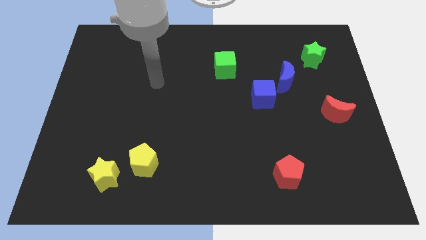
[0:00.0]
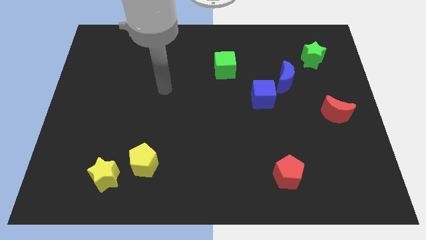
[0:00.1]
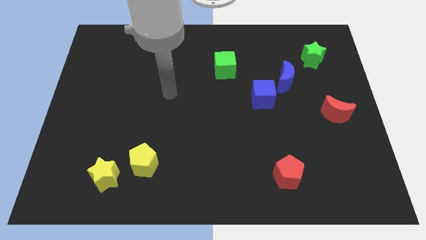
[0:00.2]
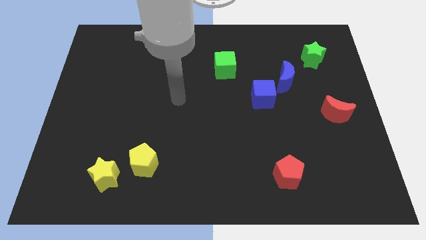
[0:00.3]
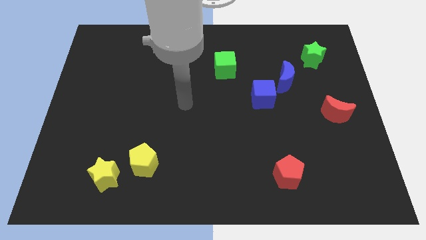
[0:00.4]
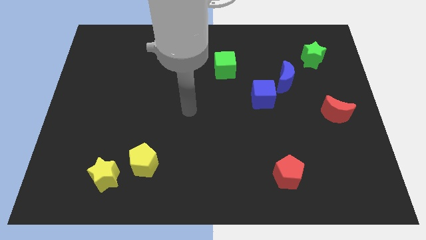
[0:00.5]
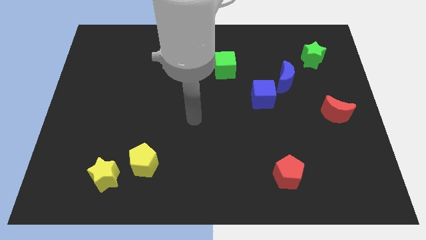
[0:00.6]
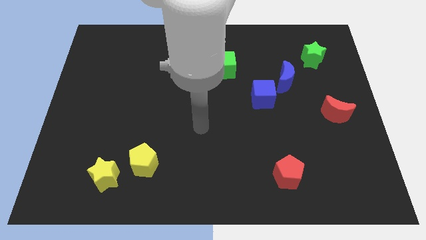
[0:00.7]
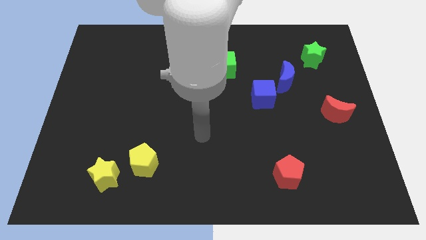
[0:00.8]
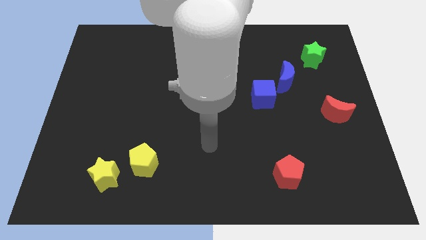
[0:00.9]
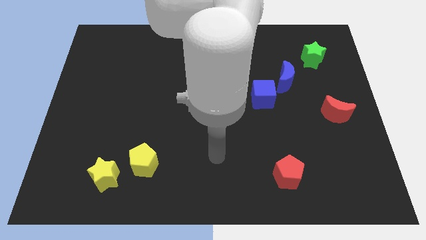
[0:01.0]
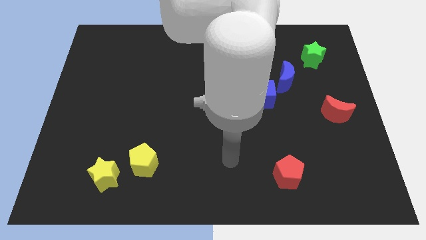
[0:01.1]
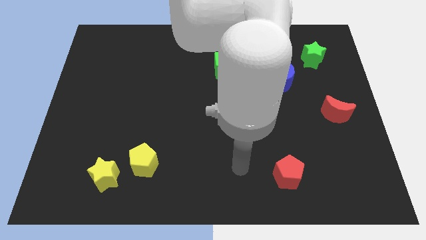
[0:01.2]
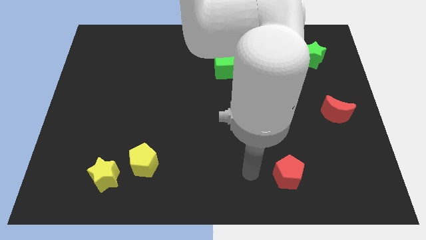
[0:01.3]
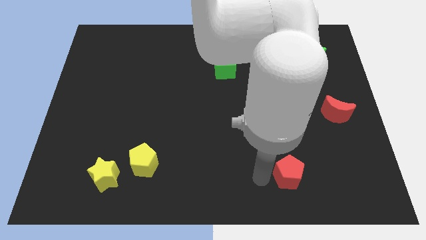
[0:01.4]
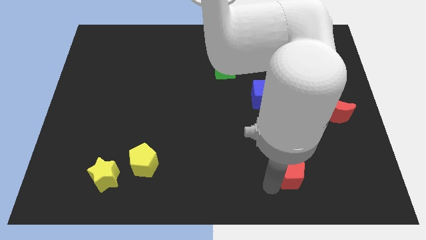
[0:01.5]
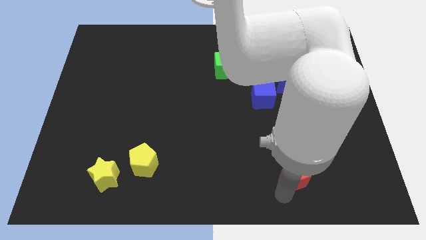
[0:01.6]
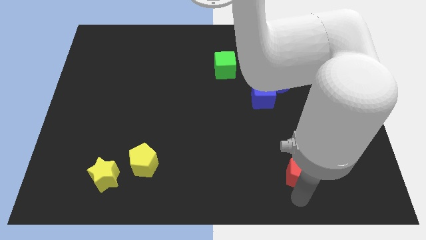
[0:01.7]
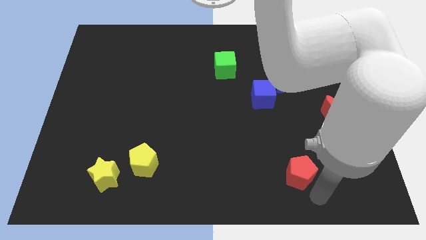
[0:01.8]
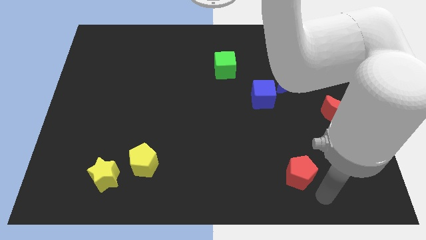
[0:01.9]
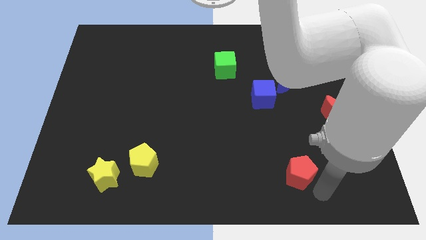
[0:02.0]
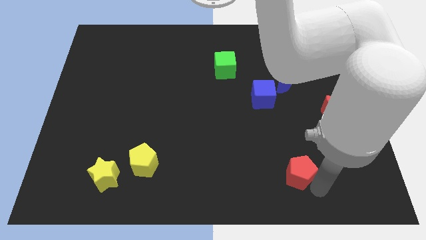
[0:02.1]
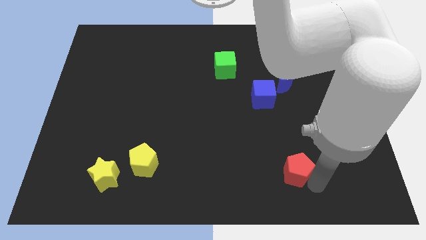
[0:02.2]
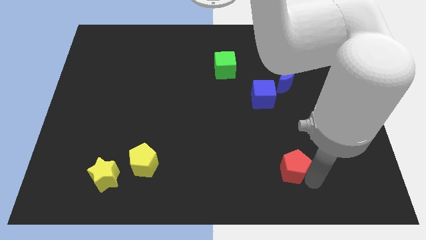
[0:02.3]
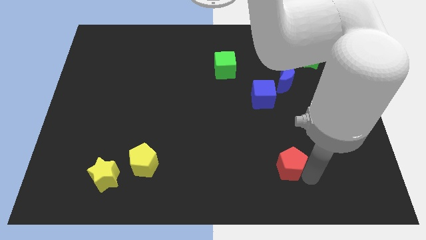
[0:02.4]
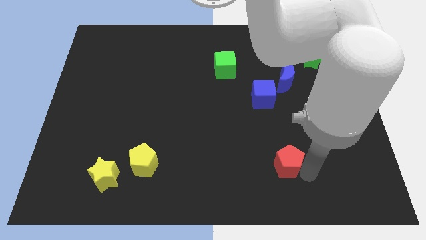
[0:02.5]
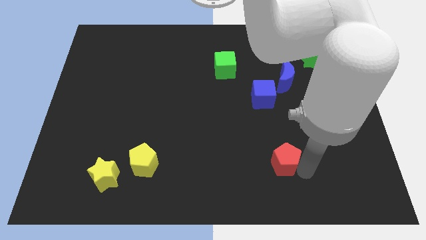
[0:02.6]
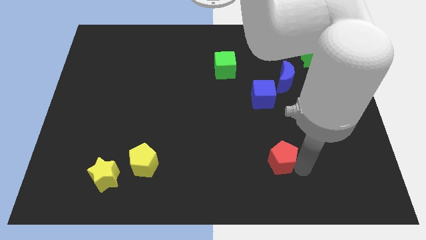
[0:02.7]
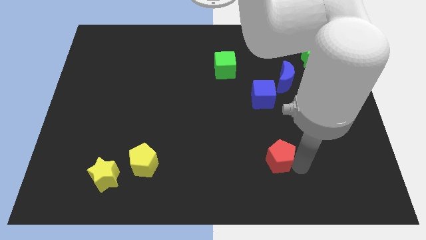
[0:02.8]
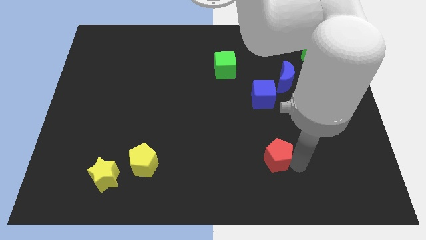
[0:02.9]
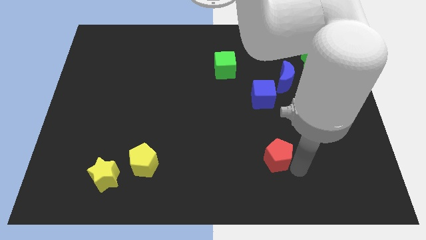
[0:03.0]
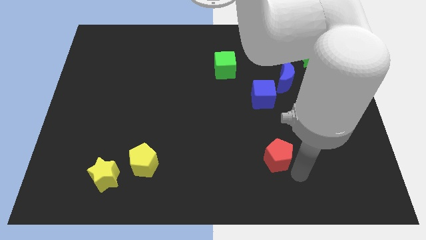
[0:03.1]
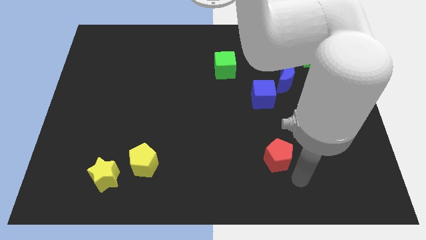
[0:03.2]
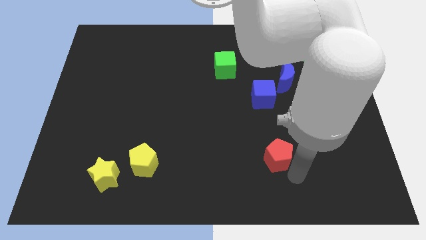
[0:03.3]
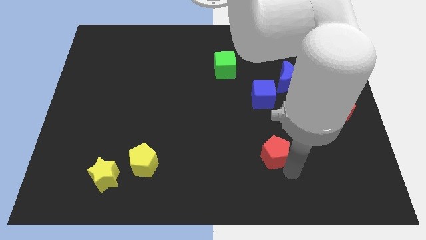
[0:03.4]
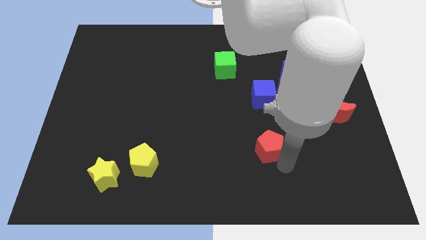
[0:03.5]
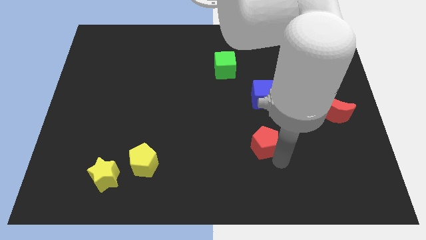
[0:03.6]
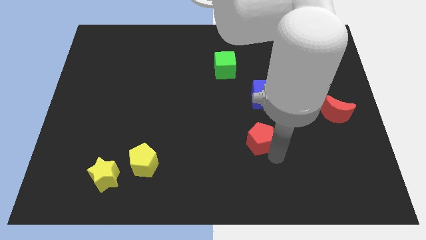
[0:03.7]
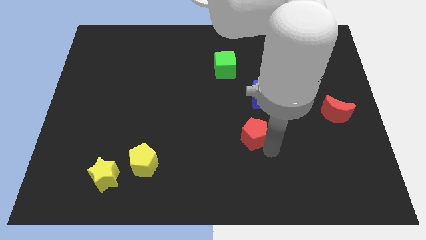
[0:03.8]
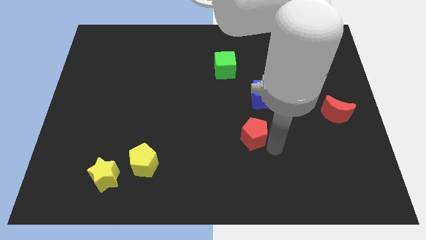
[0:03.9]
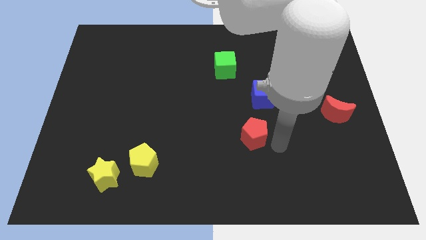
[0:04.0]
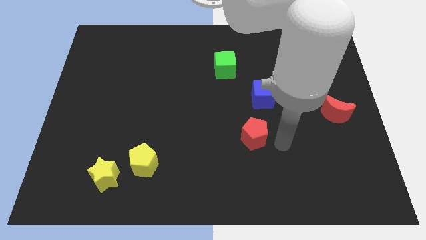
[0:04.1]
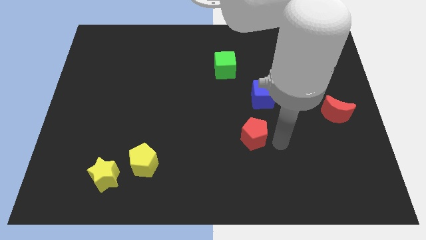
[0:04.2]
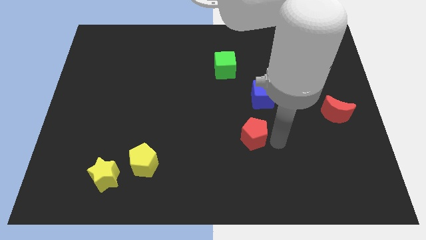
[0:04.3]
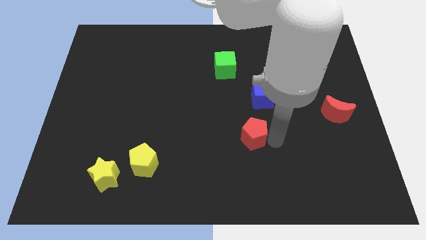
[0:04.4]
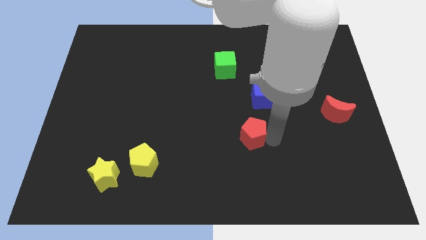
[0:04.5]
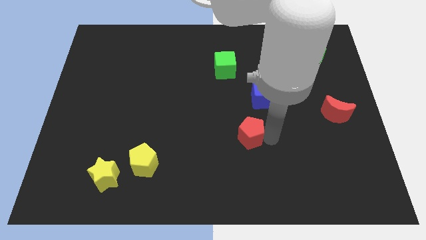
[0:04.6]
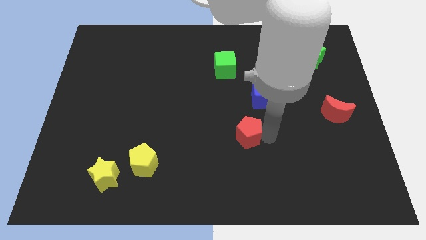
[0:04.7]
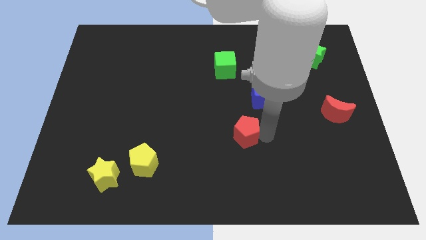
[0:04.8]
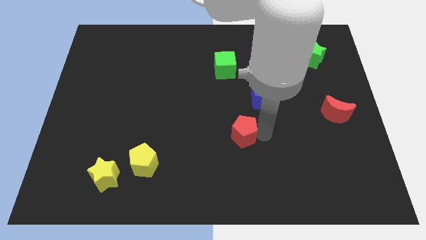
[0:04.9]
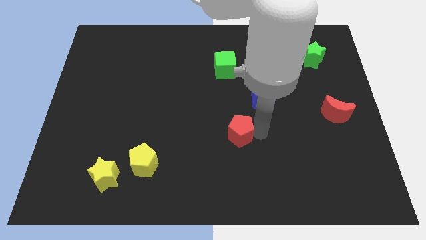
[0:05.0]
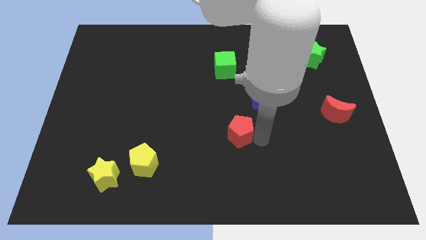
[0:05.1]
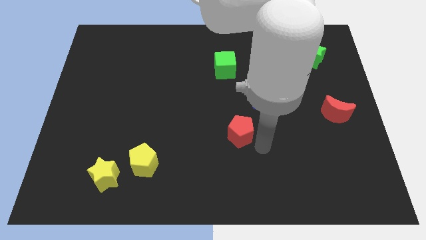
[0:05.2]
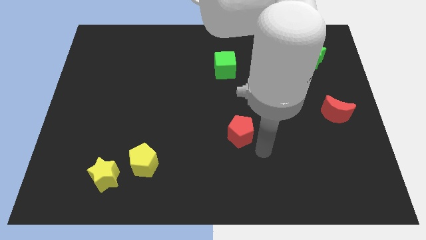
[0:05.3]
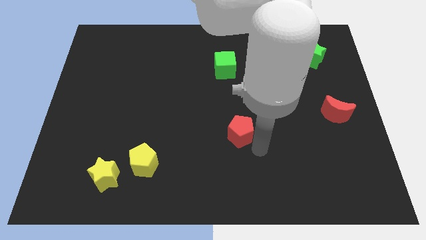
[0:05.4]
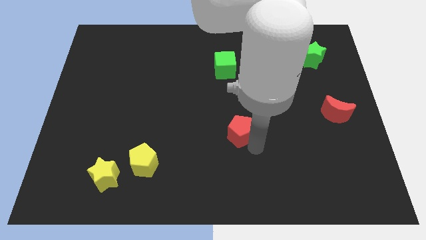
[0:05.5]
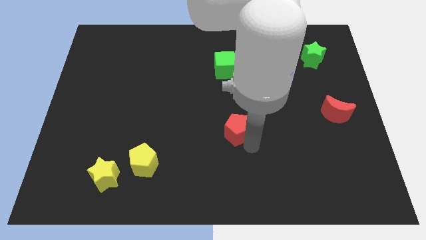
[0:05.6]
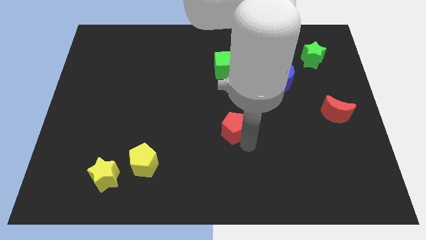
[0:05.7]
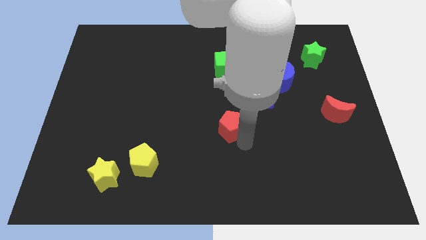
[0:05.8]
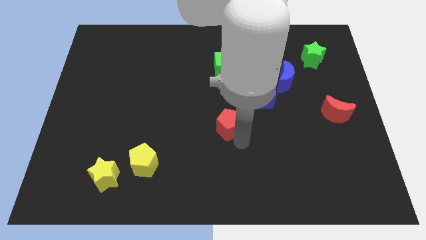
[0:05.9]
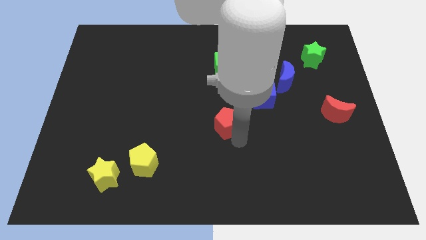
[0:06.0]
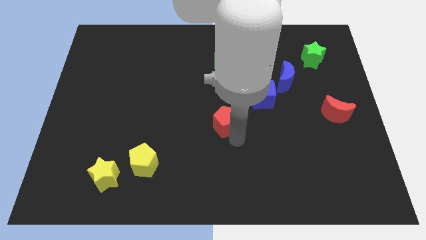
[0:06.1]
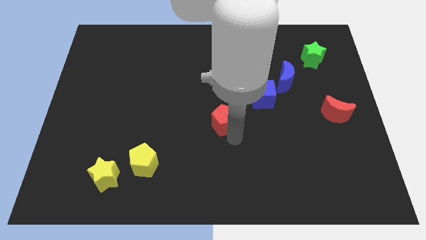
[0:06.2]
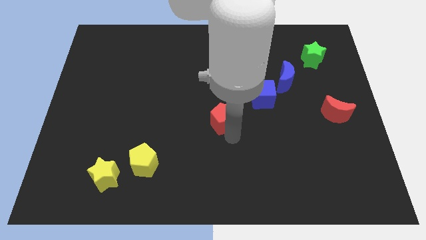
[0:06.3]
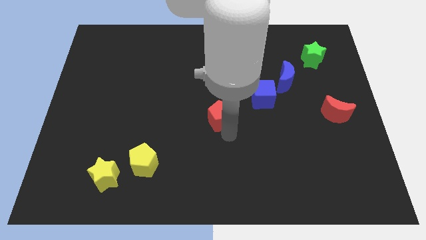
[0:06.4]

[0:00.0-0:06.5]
slide the red pentagon diagonally upwards and to the left

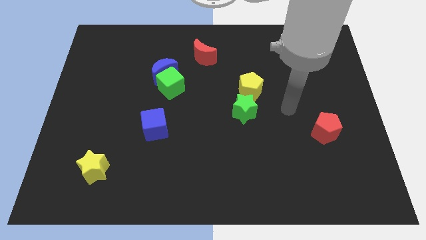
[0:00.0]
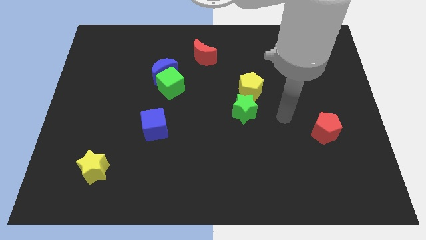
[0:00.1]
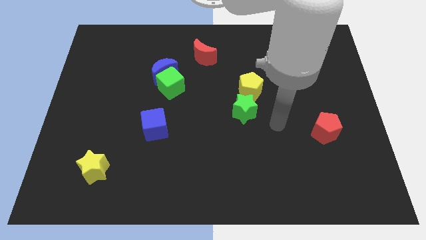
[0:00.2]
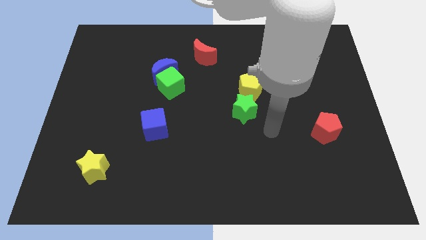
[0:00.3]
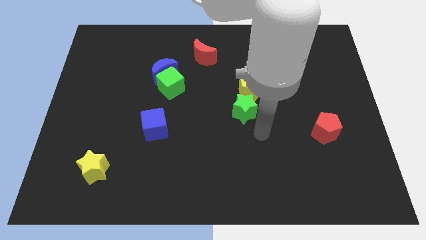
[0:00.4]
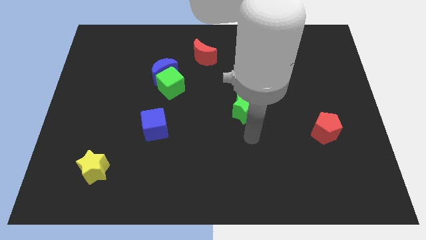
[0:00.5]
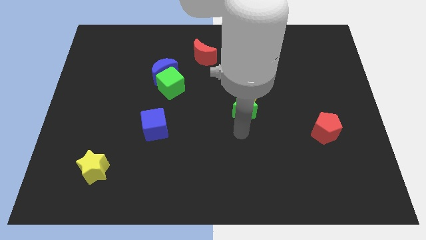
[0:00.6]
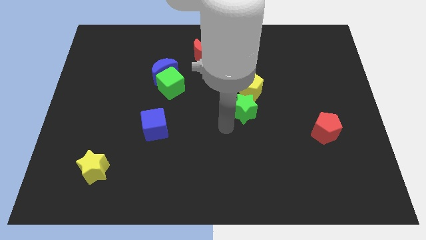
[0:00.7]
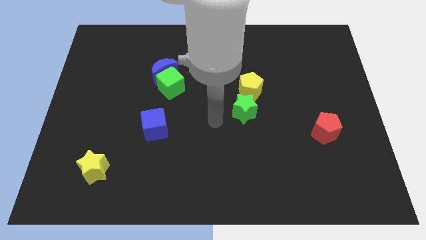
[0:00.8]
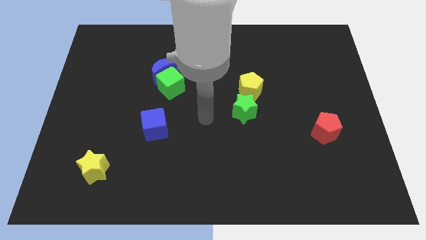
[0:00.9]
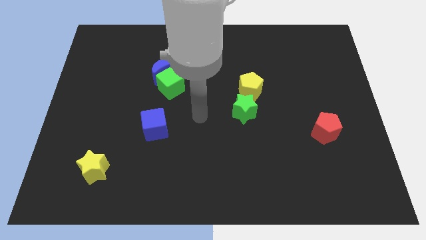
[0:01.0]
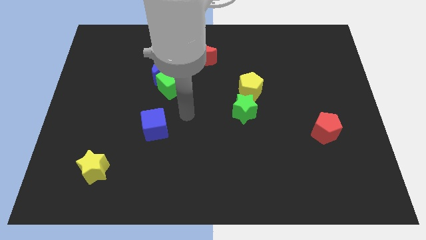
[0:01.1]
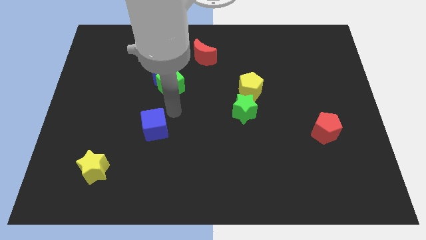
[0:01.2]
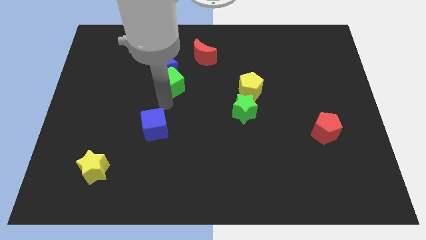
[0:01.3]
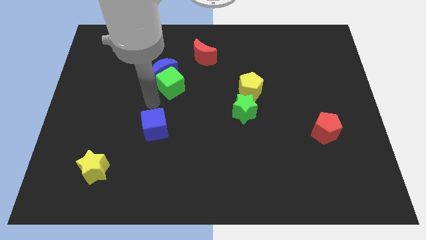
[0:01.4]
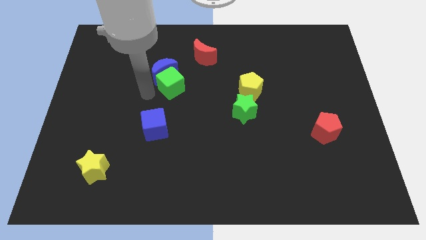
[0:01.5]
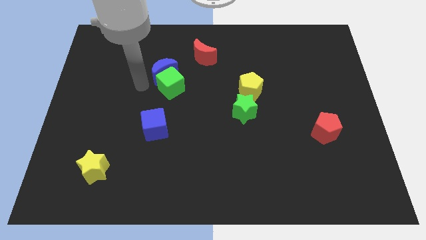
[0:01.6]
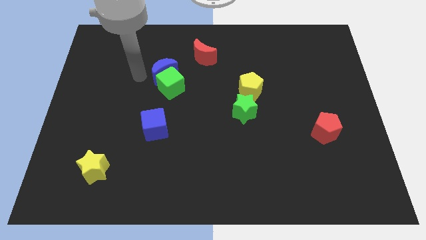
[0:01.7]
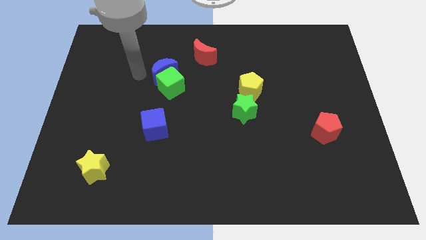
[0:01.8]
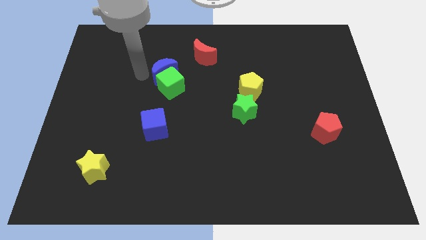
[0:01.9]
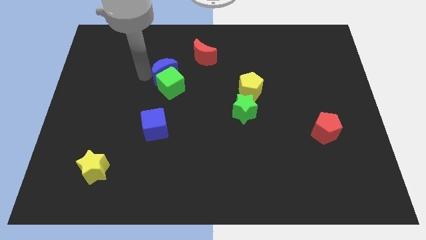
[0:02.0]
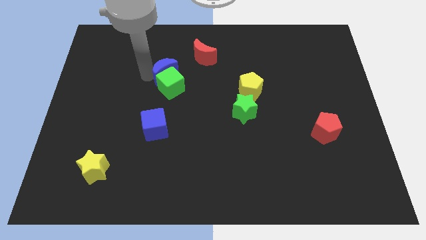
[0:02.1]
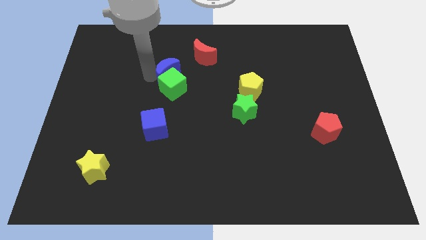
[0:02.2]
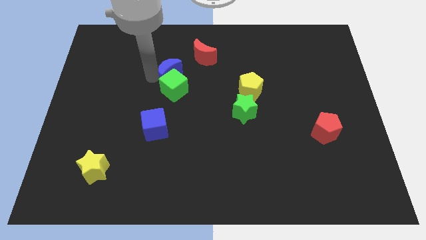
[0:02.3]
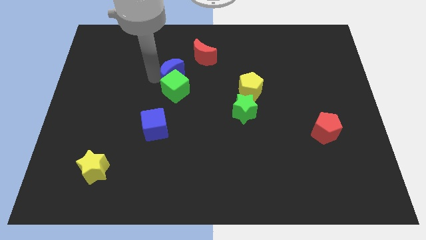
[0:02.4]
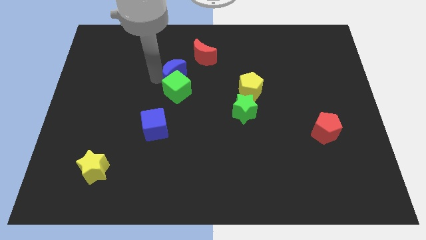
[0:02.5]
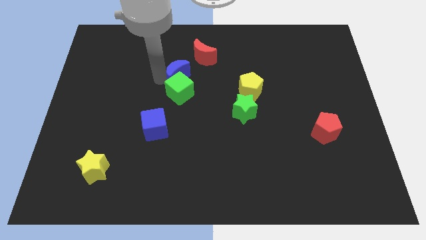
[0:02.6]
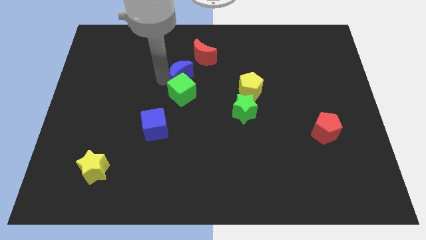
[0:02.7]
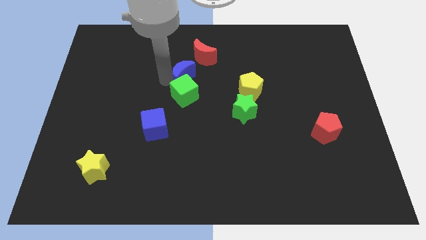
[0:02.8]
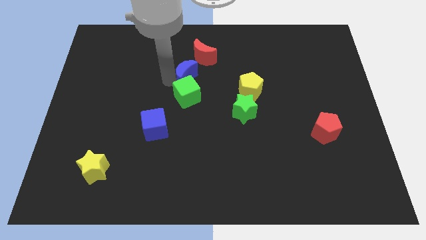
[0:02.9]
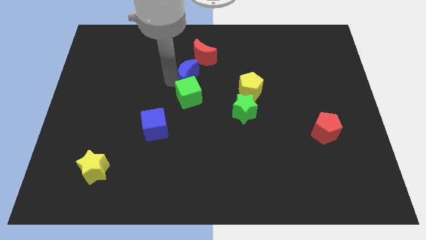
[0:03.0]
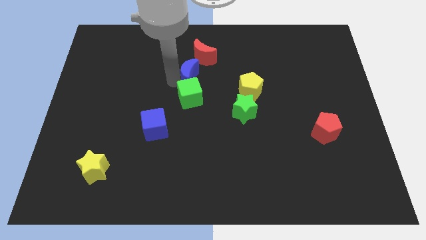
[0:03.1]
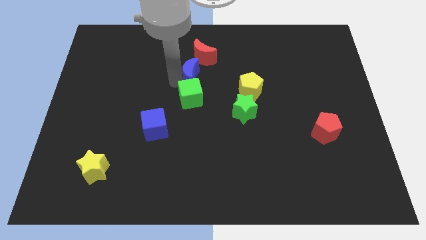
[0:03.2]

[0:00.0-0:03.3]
move the blue moon right somewhat
